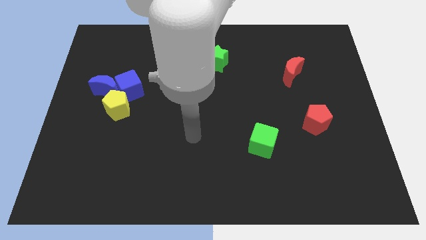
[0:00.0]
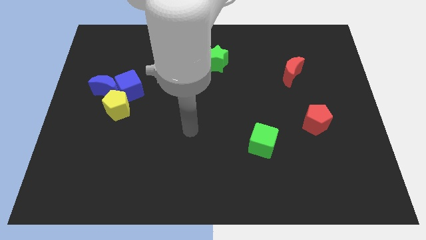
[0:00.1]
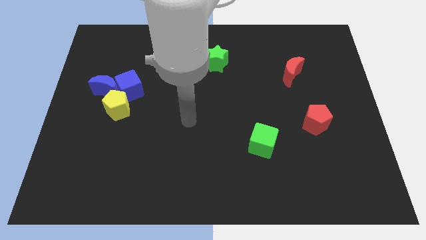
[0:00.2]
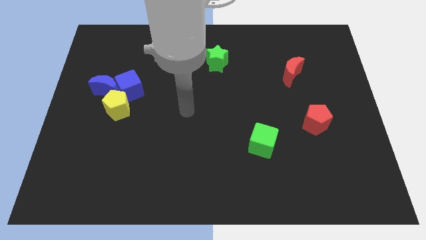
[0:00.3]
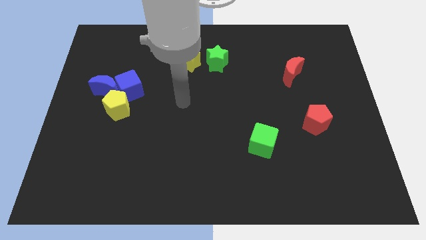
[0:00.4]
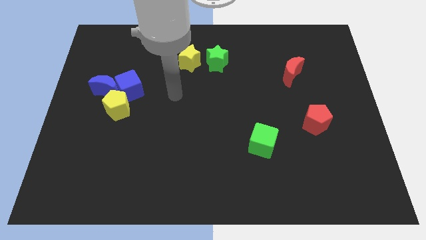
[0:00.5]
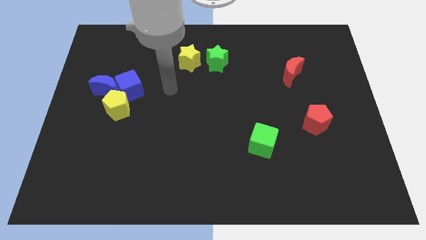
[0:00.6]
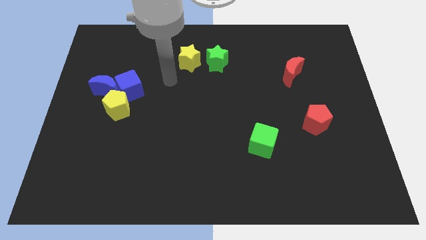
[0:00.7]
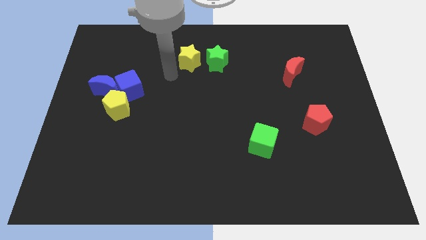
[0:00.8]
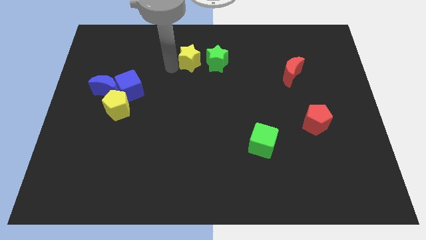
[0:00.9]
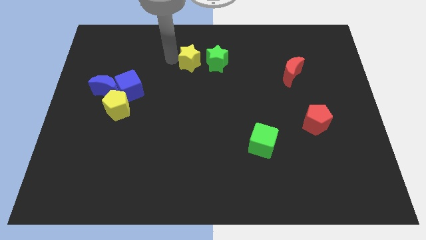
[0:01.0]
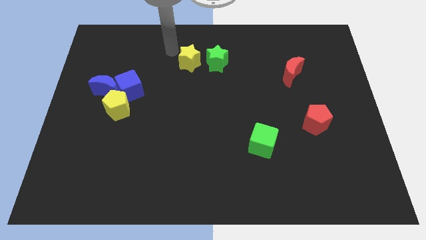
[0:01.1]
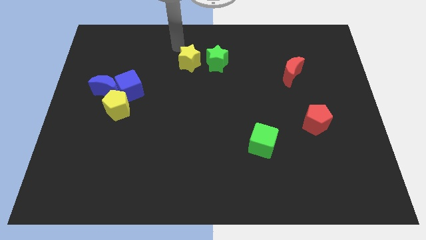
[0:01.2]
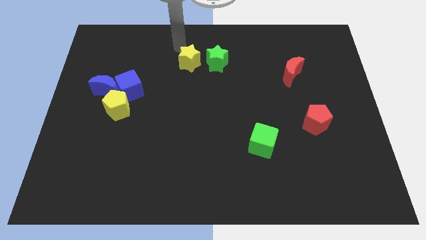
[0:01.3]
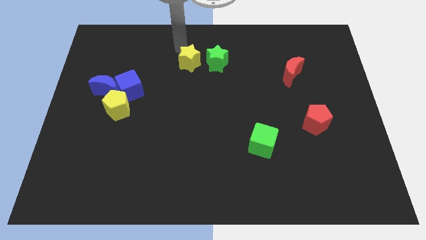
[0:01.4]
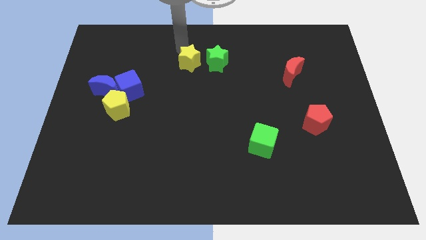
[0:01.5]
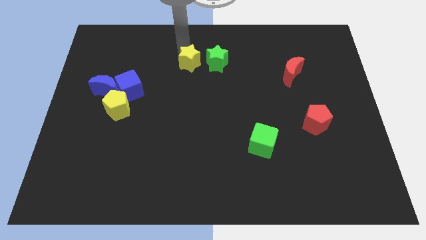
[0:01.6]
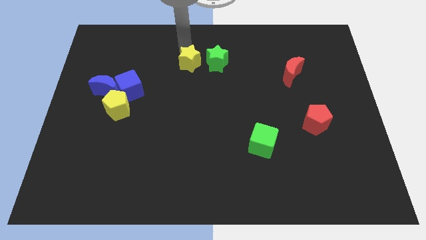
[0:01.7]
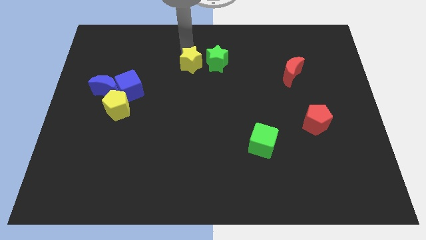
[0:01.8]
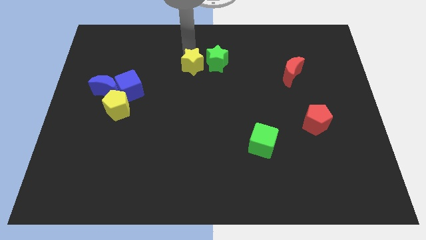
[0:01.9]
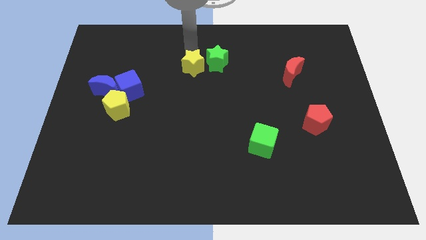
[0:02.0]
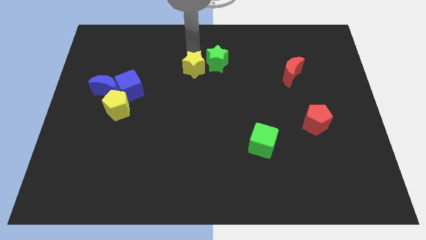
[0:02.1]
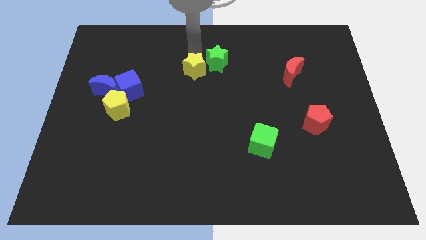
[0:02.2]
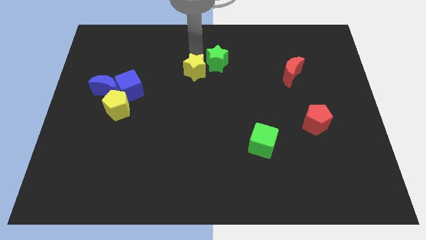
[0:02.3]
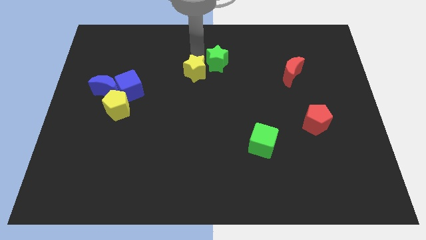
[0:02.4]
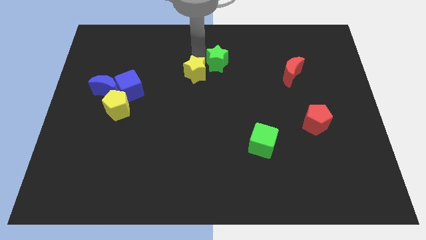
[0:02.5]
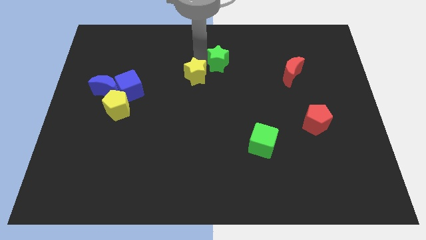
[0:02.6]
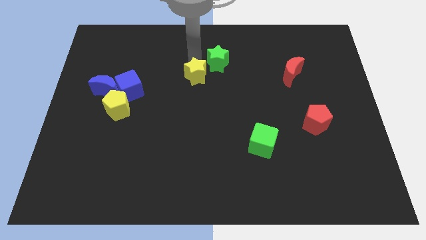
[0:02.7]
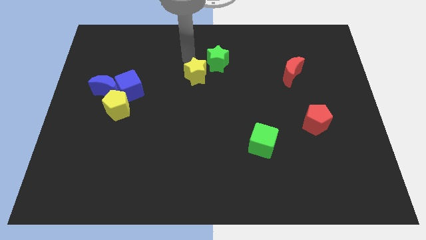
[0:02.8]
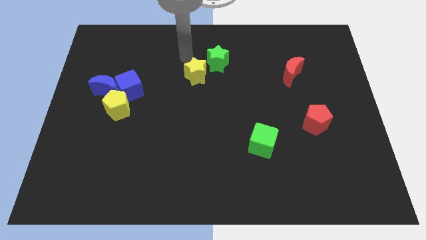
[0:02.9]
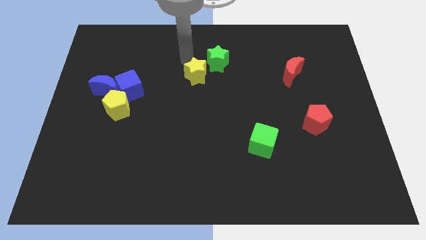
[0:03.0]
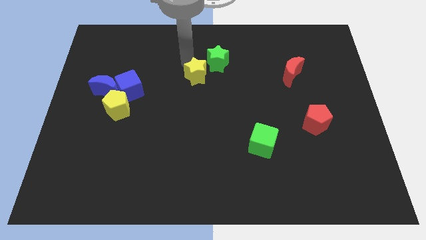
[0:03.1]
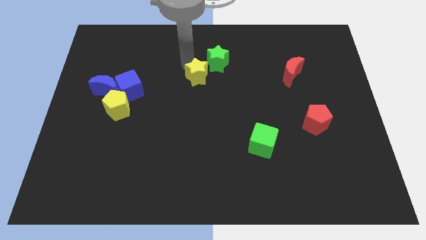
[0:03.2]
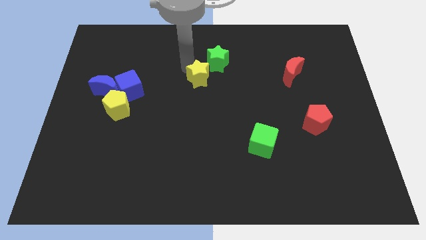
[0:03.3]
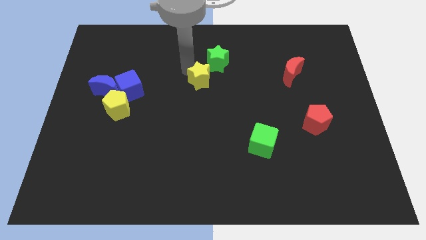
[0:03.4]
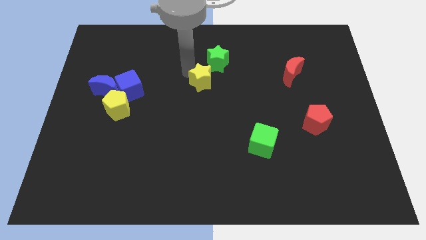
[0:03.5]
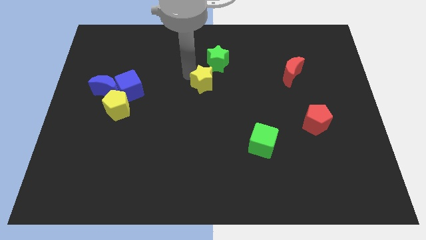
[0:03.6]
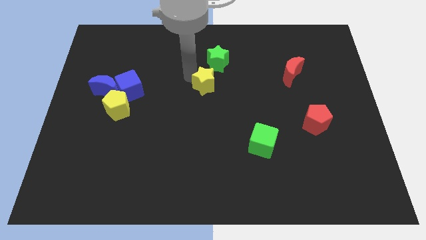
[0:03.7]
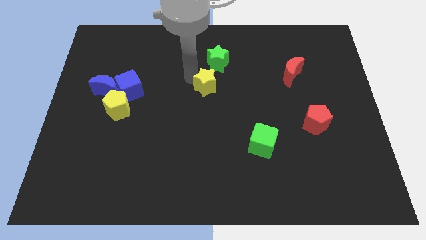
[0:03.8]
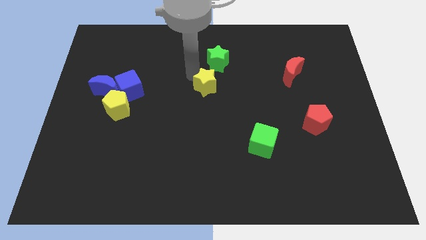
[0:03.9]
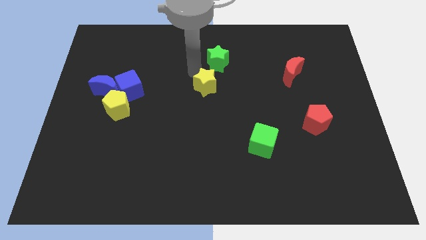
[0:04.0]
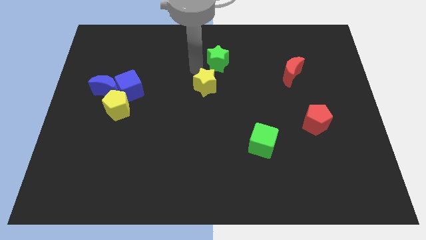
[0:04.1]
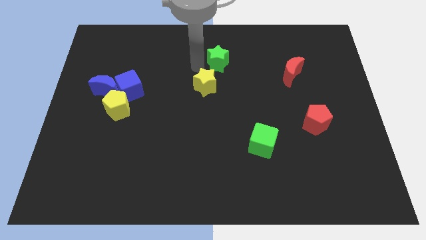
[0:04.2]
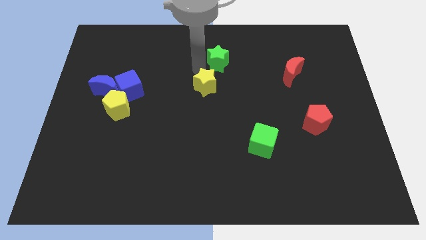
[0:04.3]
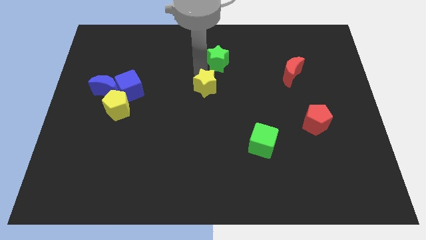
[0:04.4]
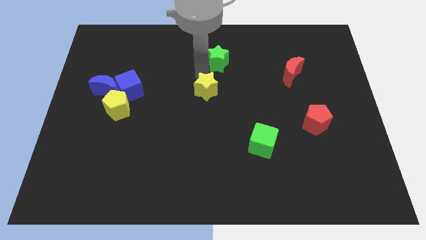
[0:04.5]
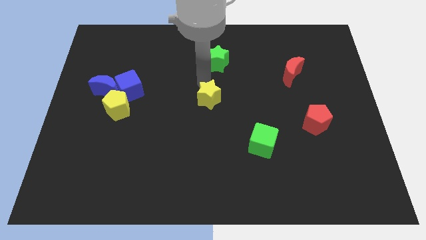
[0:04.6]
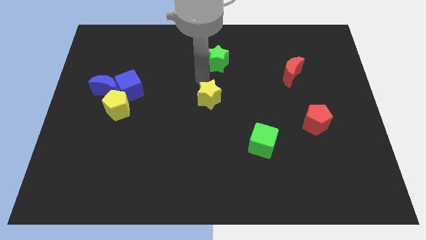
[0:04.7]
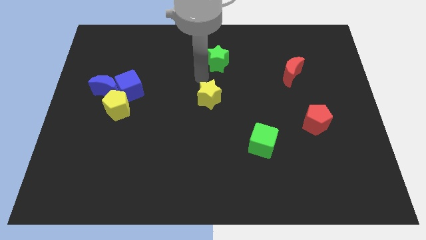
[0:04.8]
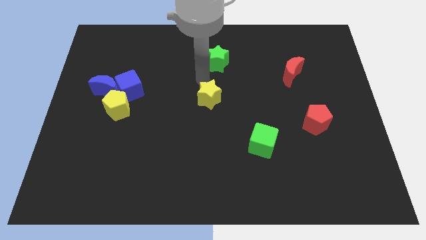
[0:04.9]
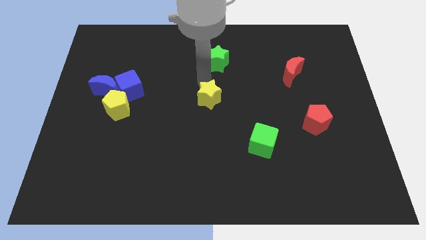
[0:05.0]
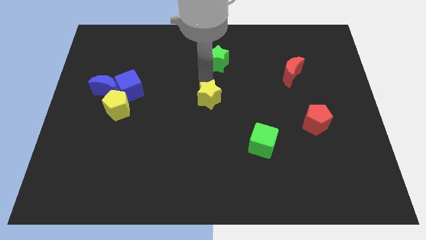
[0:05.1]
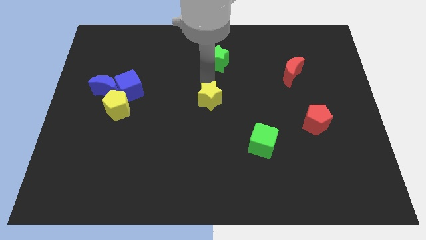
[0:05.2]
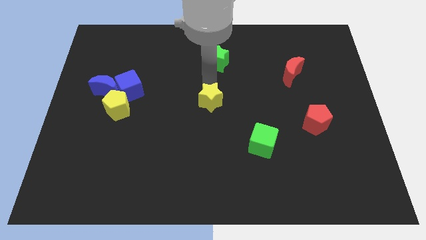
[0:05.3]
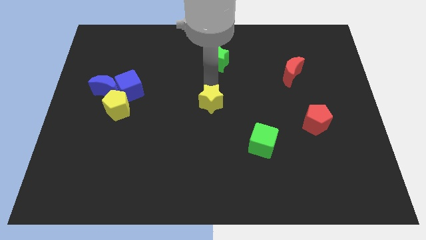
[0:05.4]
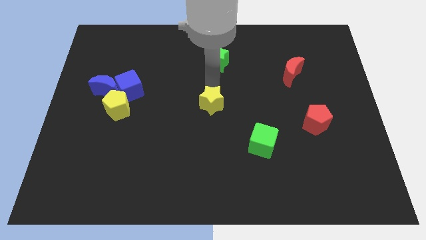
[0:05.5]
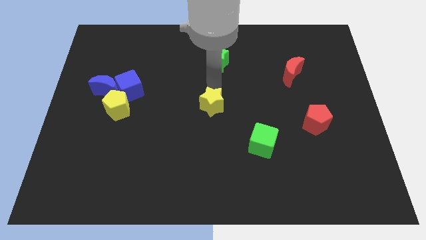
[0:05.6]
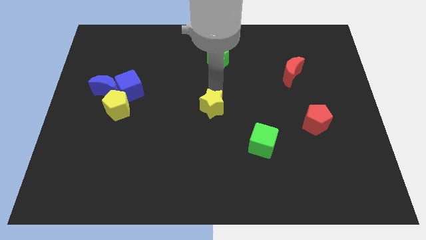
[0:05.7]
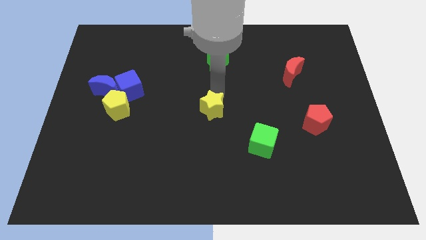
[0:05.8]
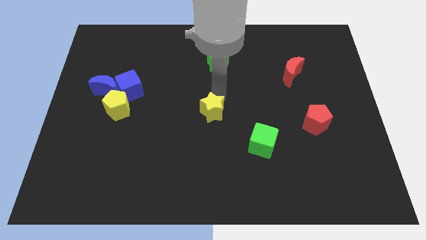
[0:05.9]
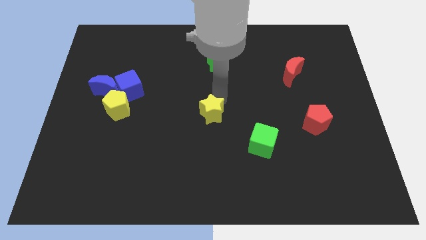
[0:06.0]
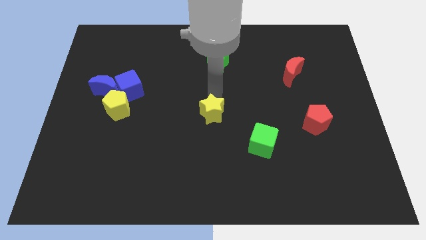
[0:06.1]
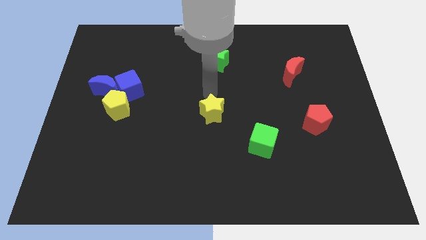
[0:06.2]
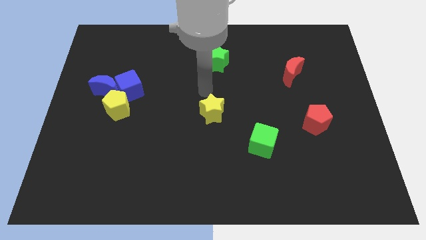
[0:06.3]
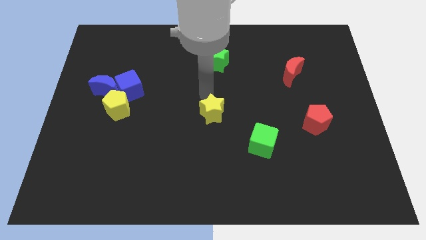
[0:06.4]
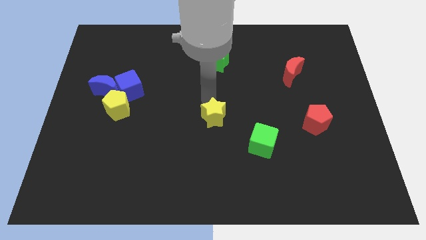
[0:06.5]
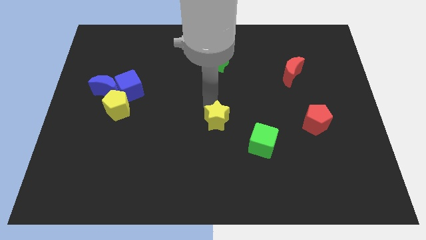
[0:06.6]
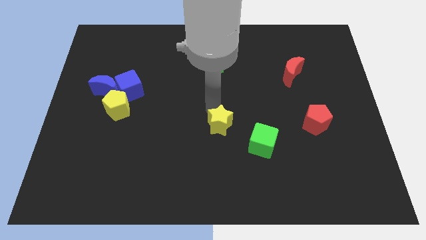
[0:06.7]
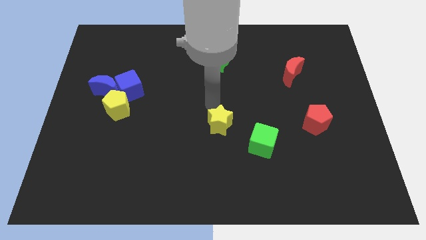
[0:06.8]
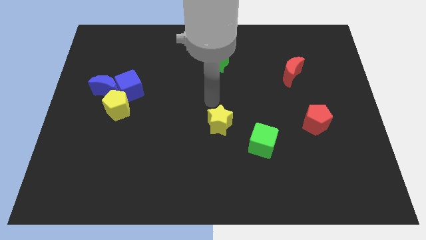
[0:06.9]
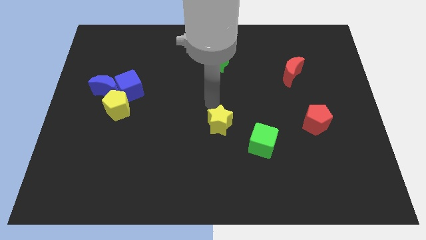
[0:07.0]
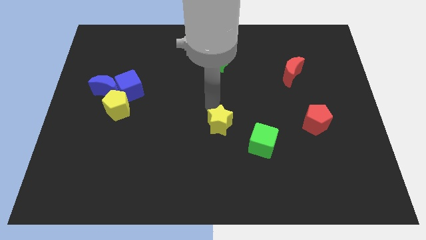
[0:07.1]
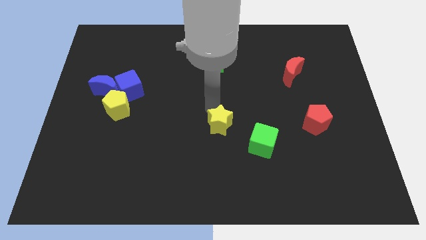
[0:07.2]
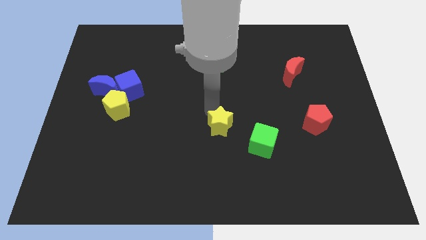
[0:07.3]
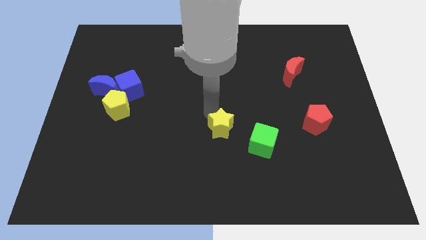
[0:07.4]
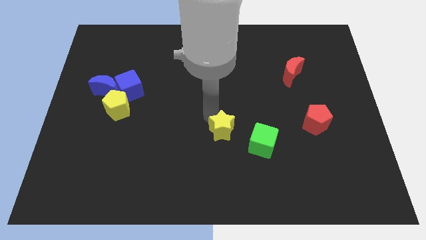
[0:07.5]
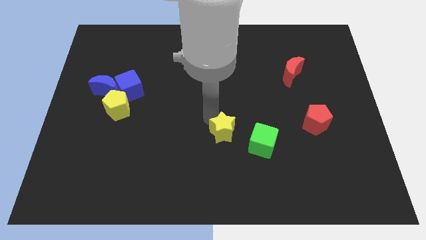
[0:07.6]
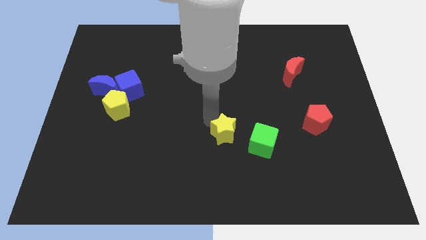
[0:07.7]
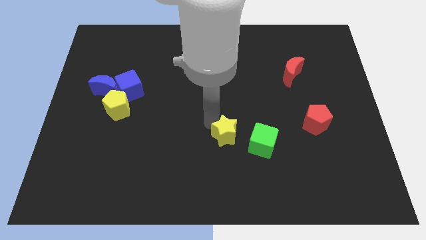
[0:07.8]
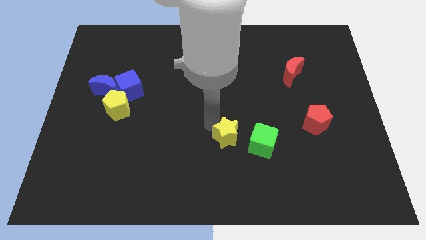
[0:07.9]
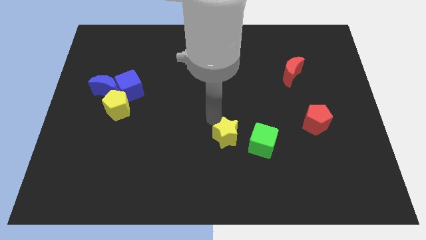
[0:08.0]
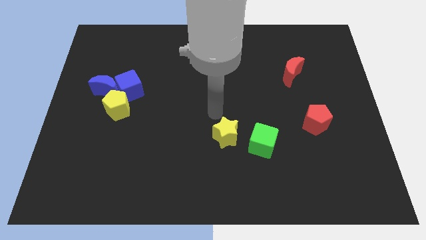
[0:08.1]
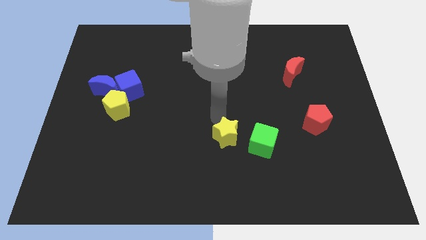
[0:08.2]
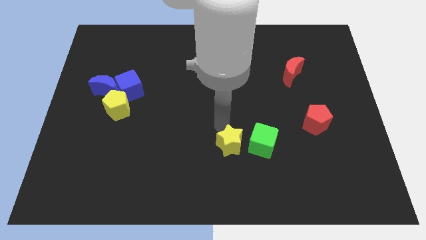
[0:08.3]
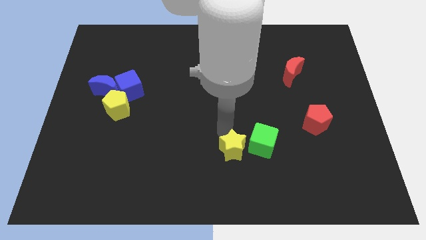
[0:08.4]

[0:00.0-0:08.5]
push the yellow star to the bottom left of the green cube
